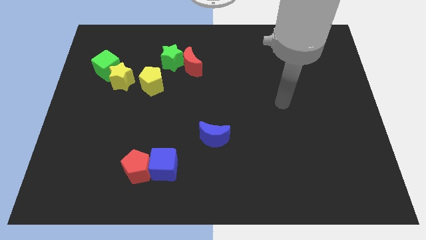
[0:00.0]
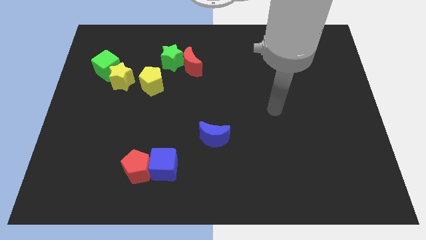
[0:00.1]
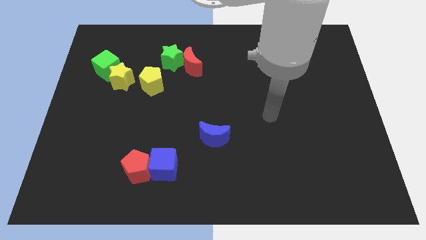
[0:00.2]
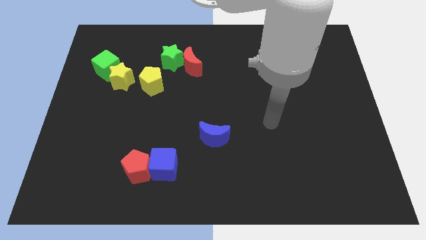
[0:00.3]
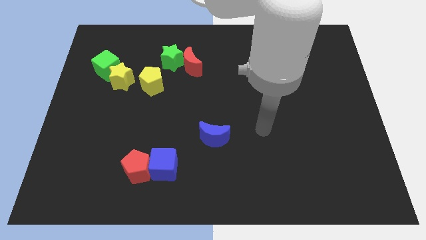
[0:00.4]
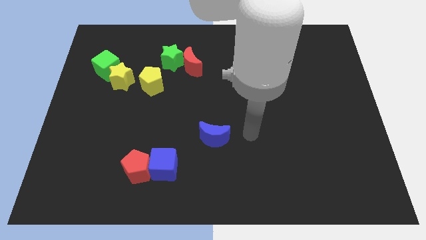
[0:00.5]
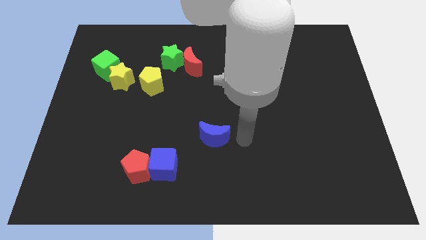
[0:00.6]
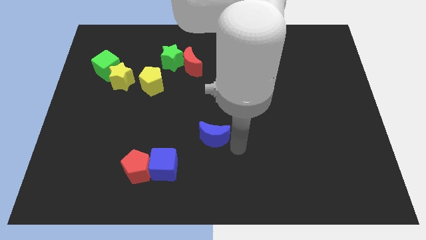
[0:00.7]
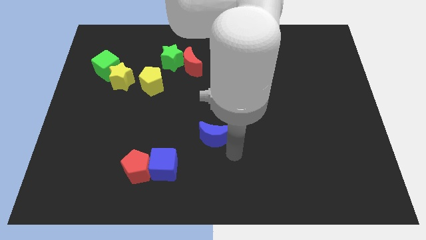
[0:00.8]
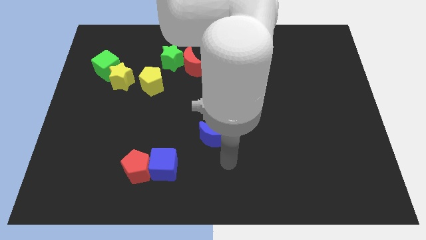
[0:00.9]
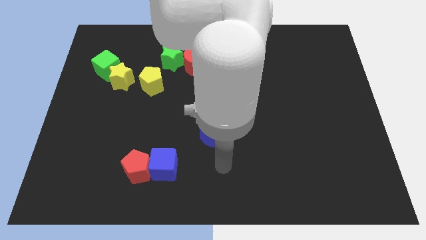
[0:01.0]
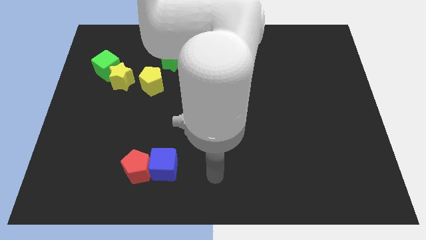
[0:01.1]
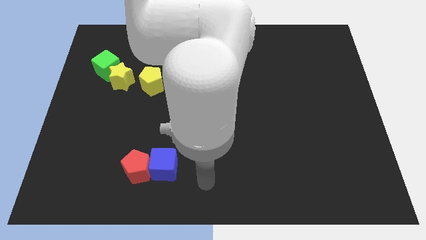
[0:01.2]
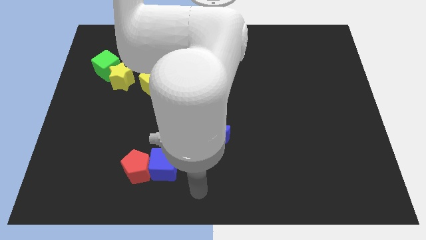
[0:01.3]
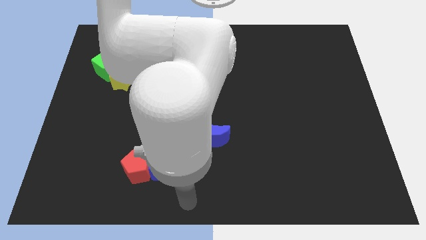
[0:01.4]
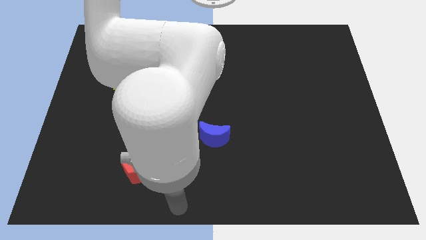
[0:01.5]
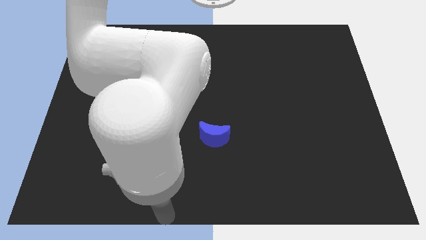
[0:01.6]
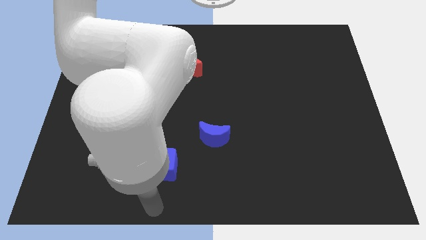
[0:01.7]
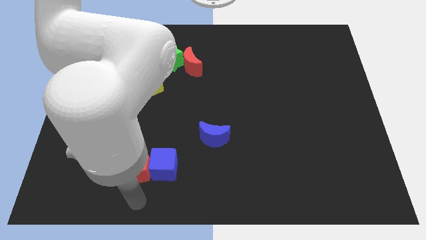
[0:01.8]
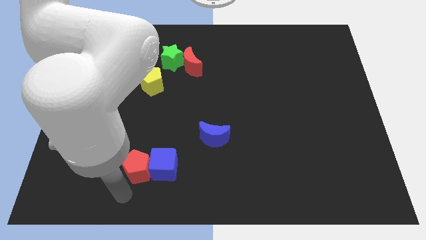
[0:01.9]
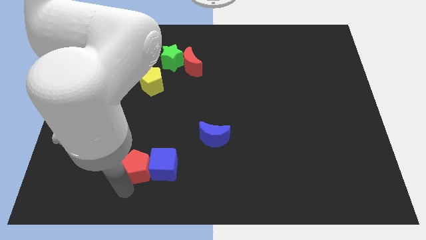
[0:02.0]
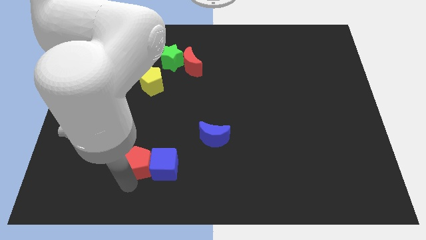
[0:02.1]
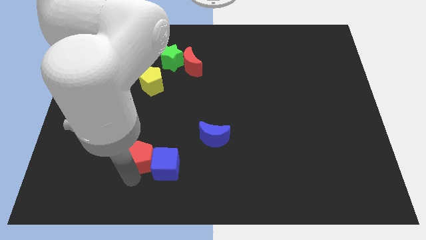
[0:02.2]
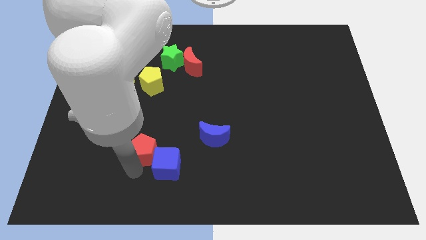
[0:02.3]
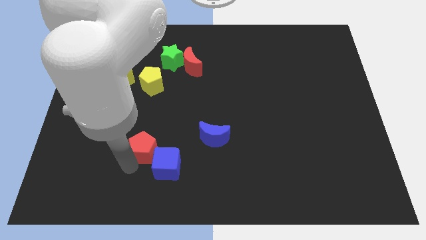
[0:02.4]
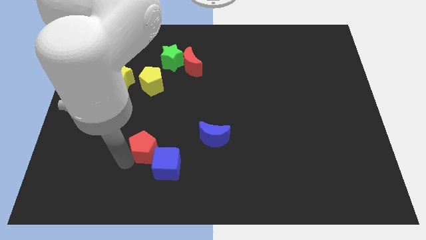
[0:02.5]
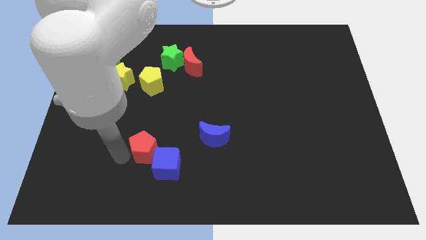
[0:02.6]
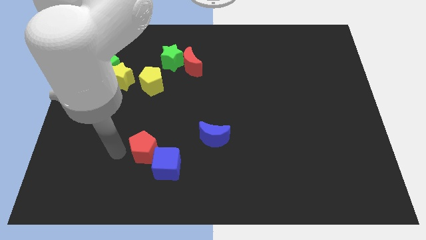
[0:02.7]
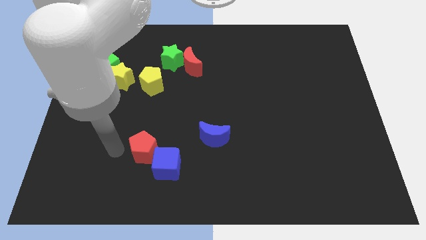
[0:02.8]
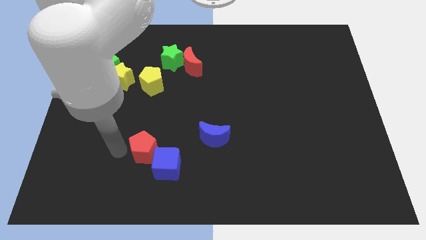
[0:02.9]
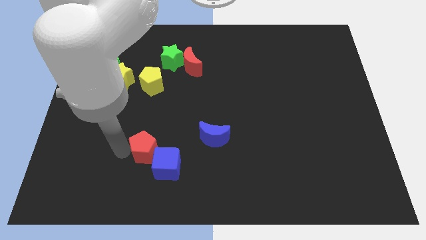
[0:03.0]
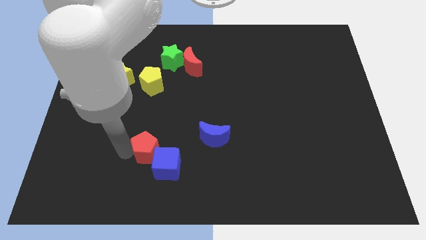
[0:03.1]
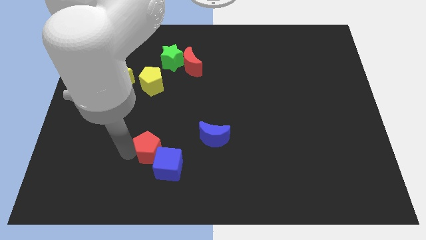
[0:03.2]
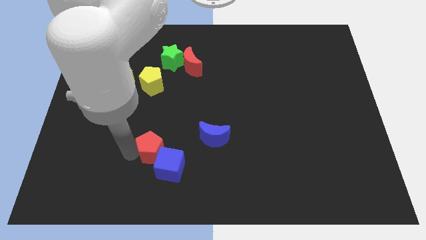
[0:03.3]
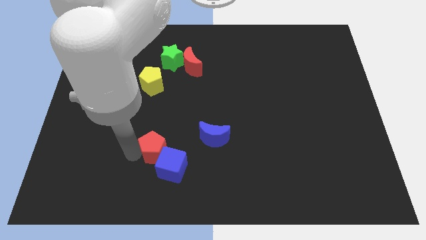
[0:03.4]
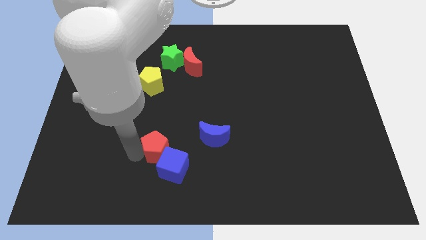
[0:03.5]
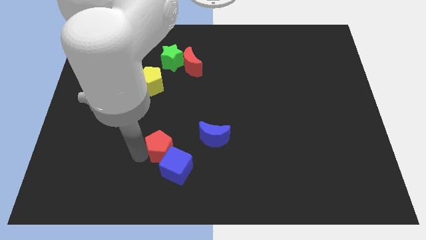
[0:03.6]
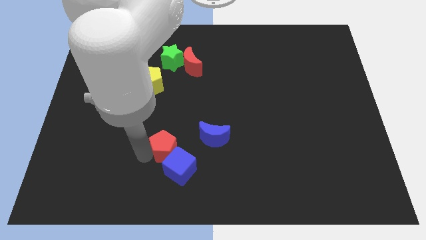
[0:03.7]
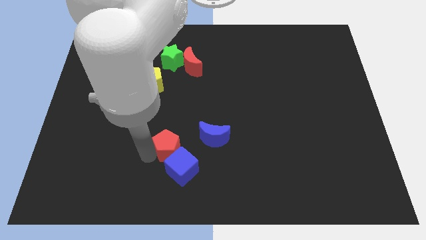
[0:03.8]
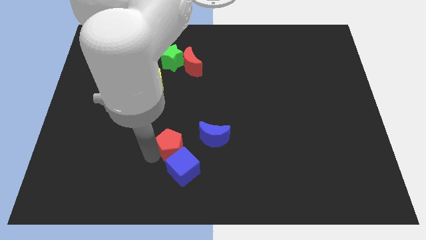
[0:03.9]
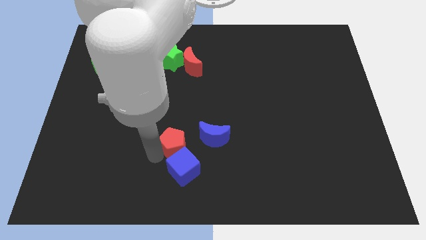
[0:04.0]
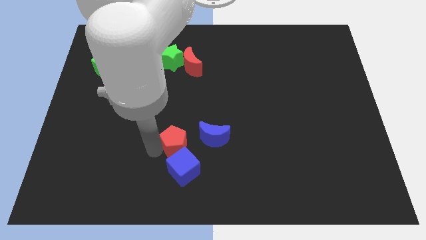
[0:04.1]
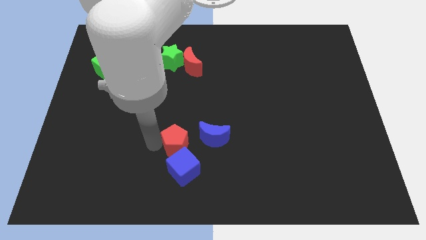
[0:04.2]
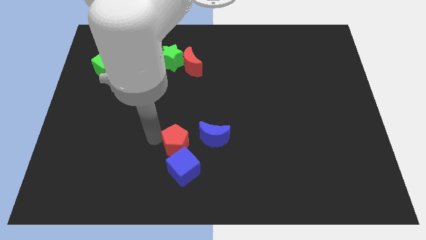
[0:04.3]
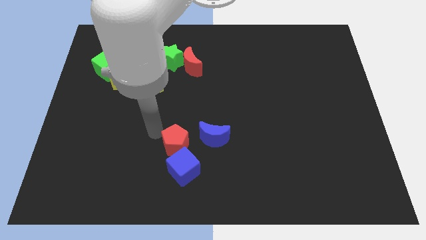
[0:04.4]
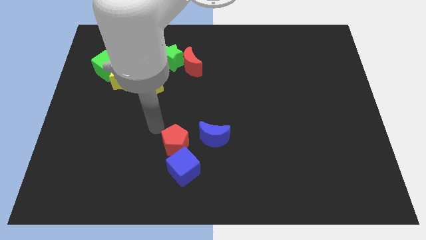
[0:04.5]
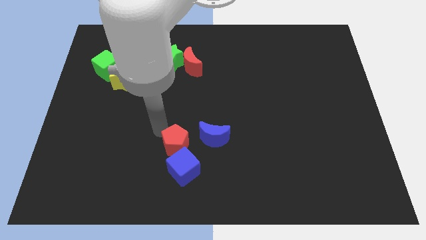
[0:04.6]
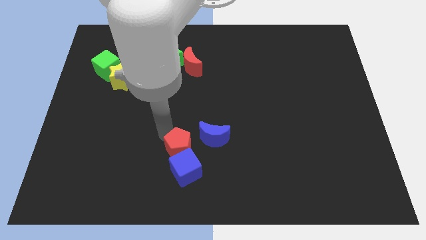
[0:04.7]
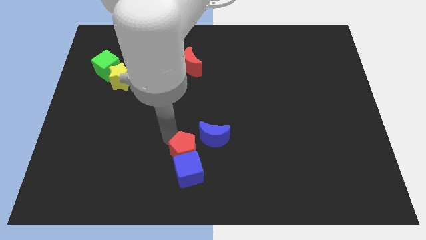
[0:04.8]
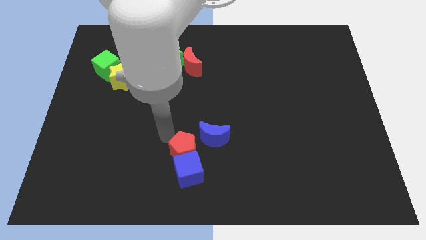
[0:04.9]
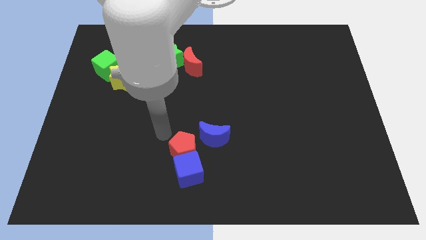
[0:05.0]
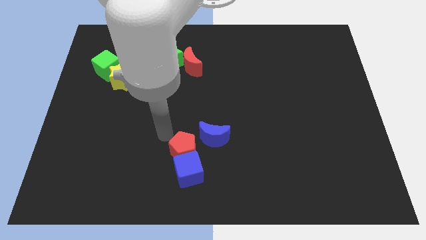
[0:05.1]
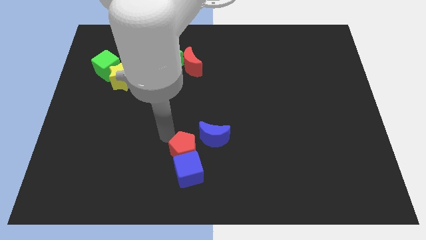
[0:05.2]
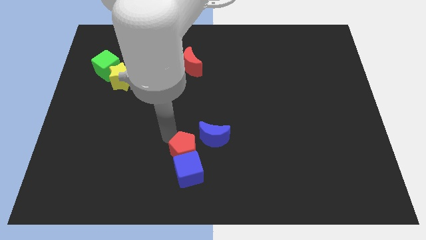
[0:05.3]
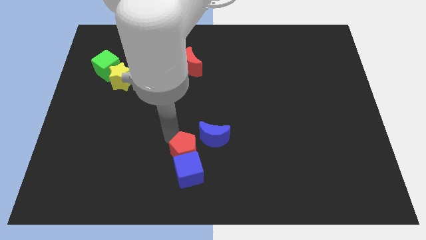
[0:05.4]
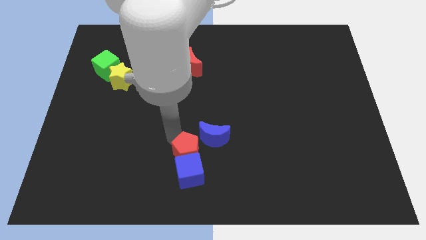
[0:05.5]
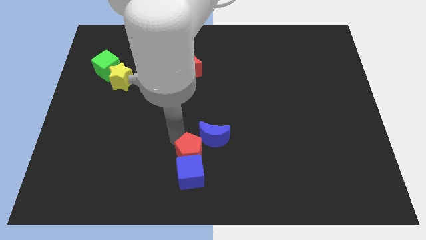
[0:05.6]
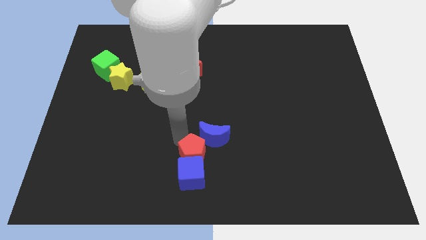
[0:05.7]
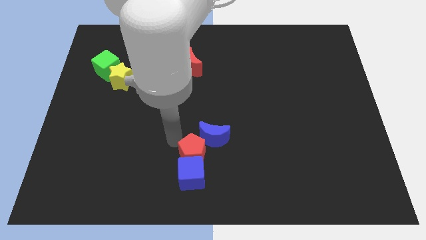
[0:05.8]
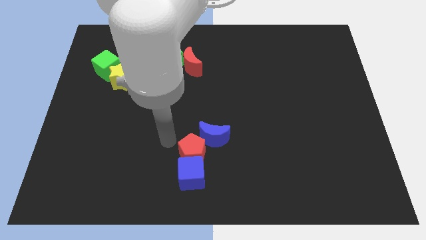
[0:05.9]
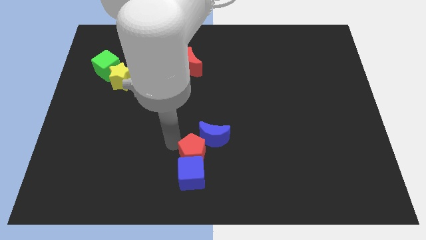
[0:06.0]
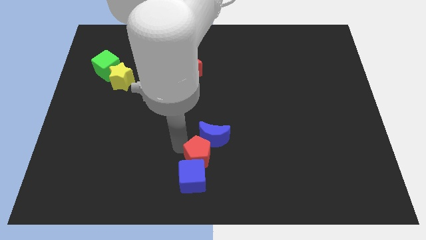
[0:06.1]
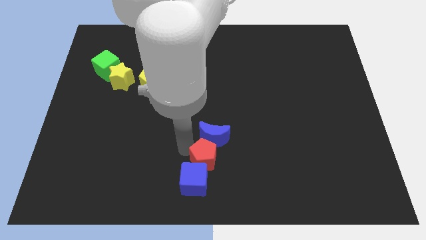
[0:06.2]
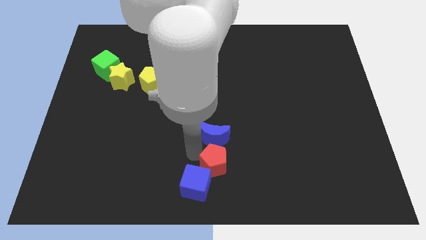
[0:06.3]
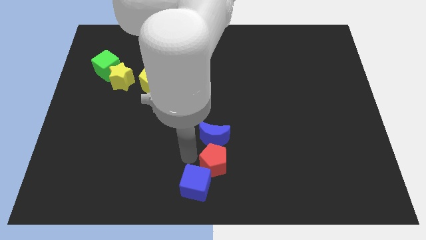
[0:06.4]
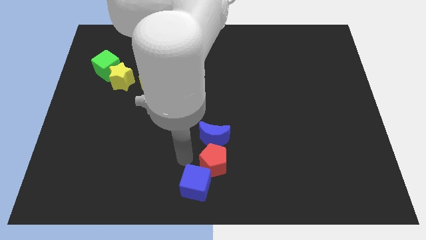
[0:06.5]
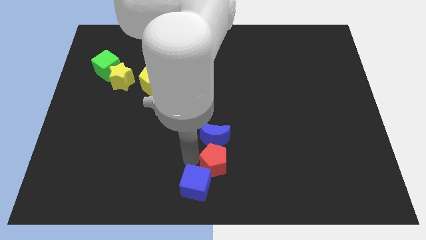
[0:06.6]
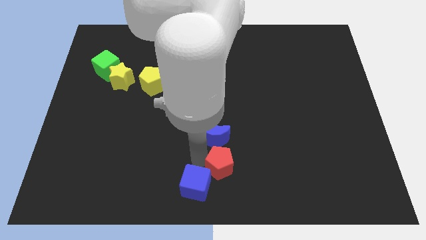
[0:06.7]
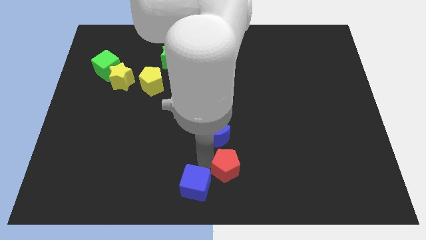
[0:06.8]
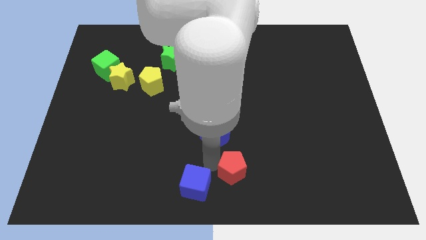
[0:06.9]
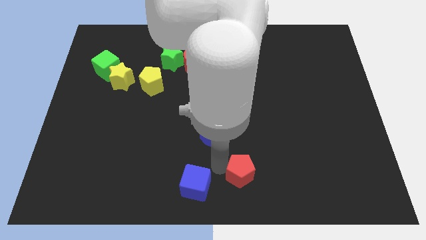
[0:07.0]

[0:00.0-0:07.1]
slide the red pentagon to the right

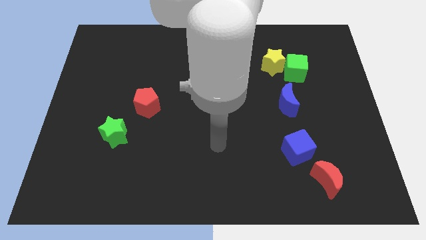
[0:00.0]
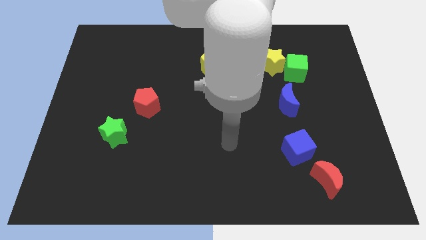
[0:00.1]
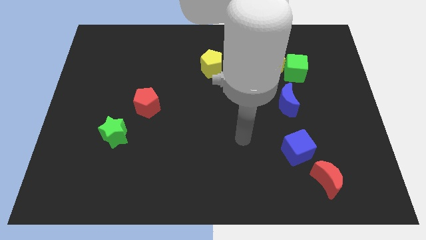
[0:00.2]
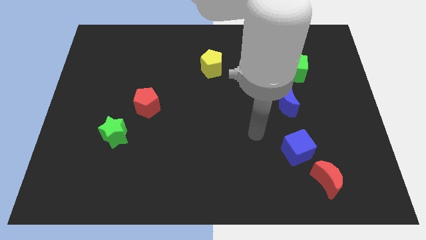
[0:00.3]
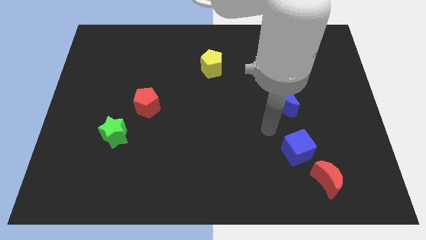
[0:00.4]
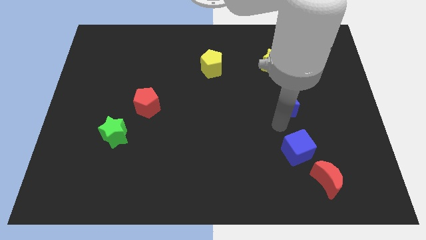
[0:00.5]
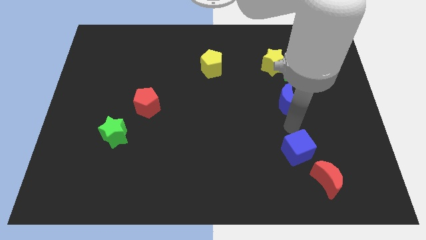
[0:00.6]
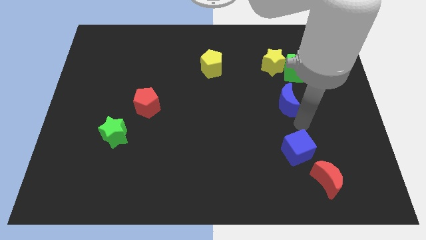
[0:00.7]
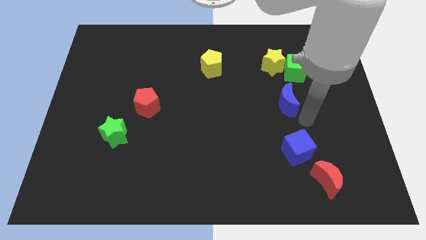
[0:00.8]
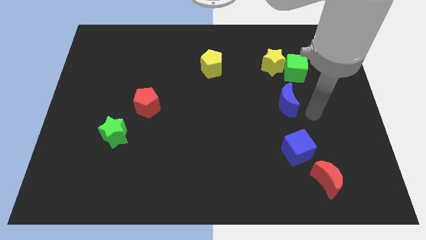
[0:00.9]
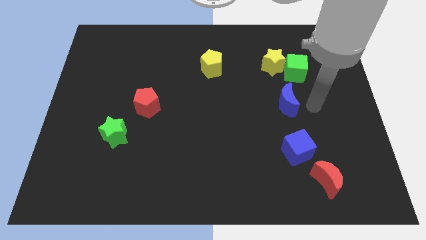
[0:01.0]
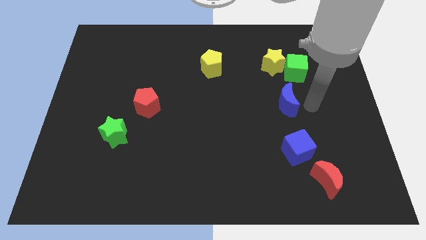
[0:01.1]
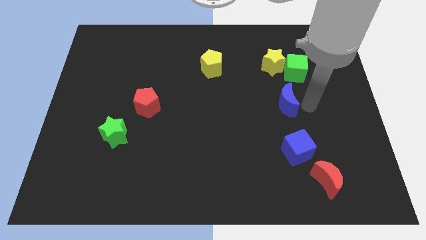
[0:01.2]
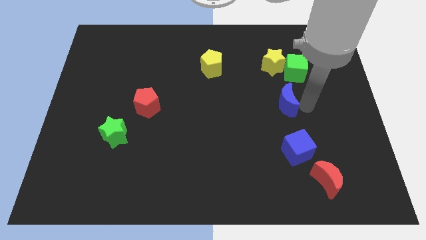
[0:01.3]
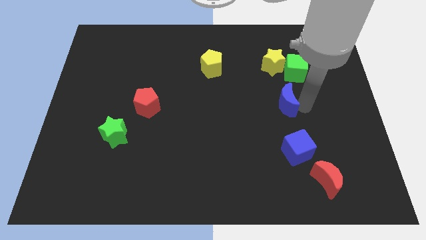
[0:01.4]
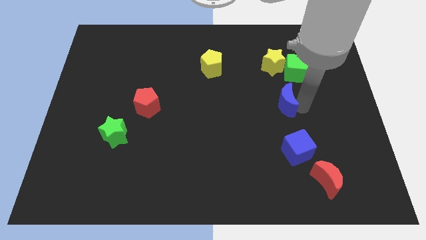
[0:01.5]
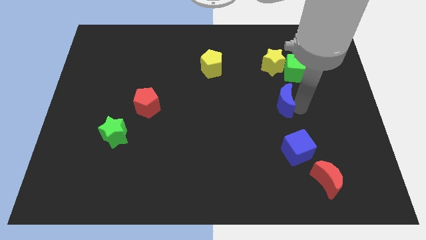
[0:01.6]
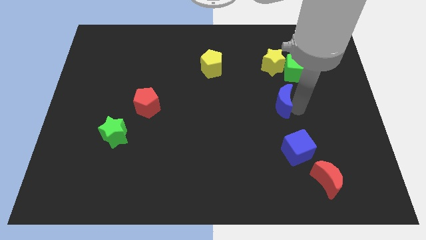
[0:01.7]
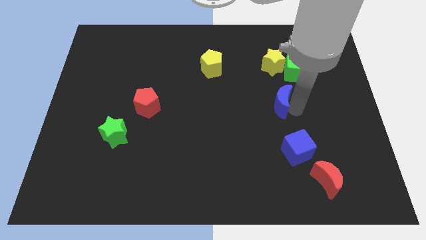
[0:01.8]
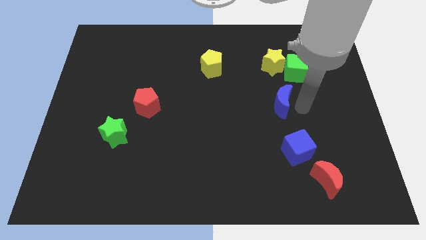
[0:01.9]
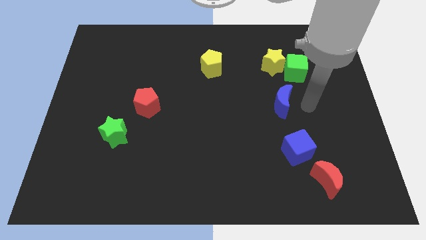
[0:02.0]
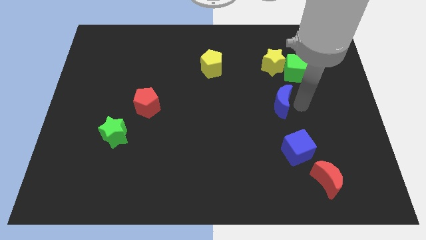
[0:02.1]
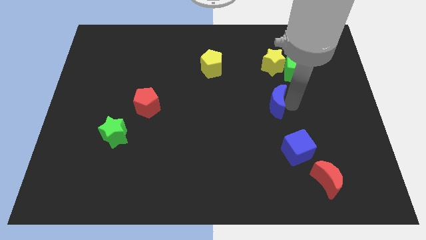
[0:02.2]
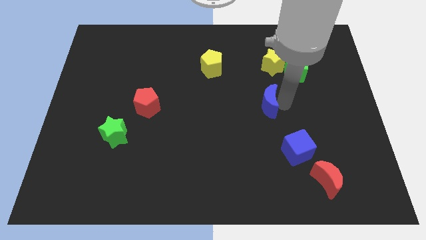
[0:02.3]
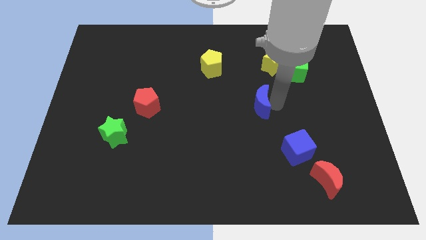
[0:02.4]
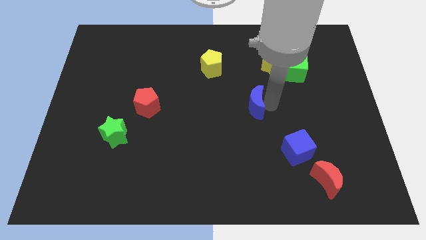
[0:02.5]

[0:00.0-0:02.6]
push the blue moon a little bit to the left
